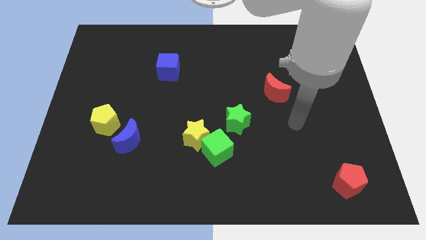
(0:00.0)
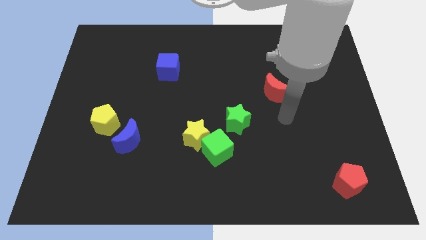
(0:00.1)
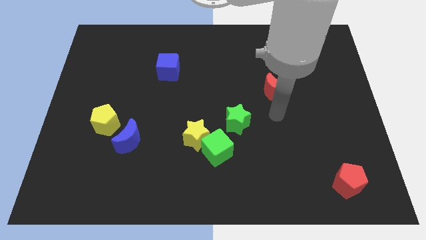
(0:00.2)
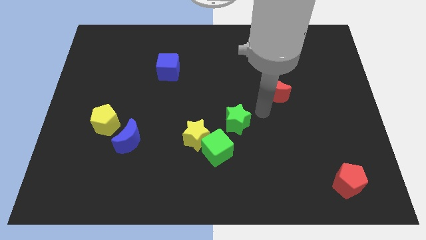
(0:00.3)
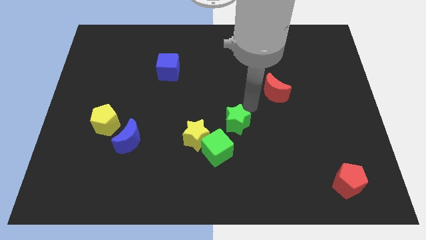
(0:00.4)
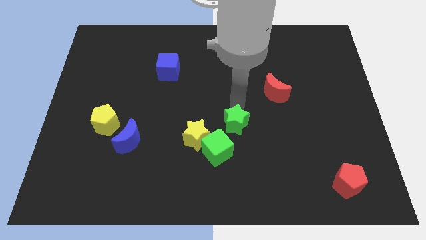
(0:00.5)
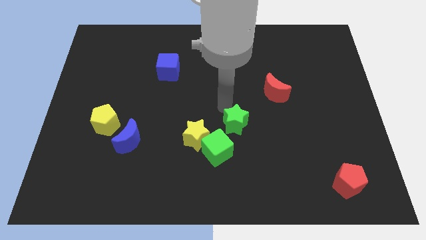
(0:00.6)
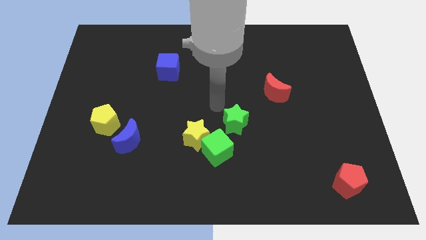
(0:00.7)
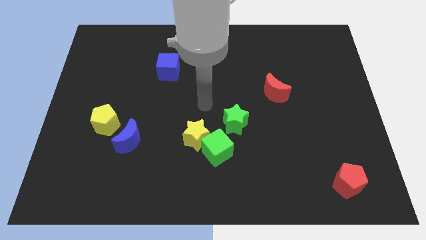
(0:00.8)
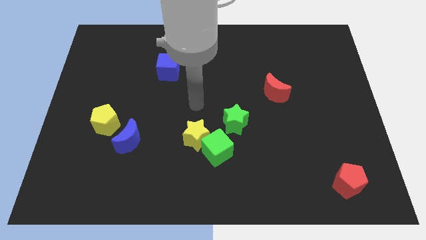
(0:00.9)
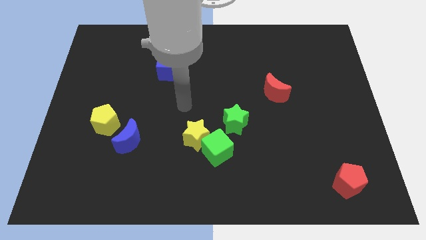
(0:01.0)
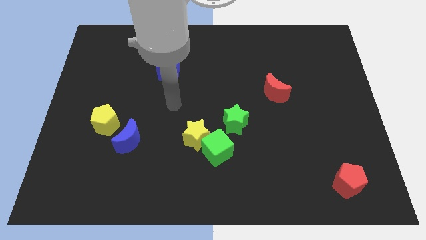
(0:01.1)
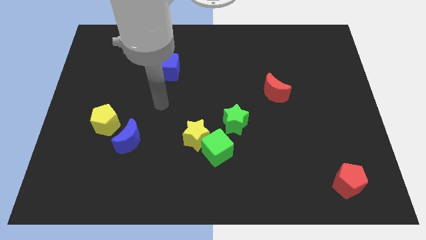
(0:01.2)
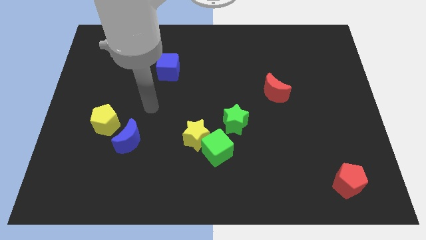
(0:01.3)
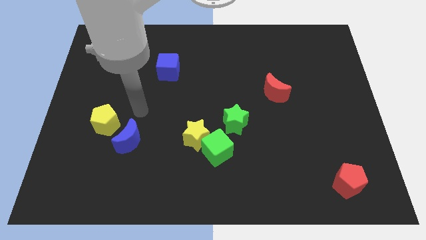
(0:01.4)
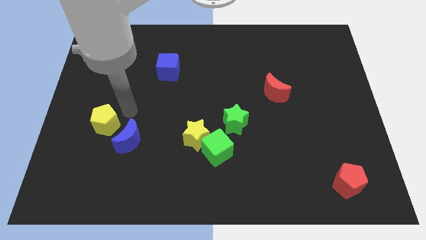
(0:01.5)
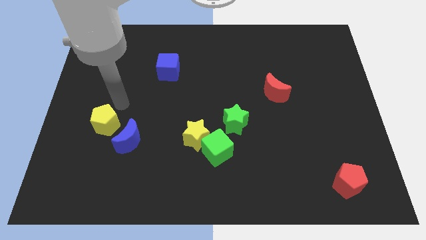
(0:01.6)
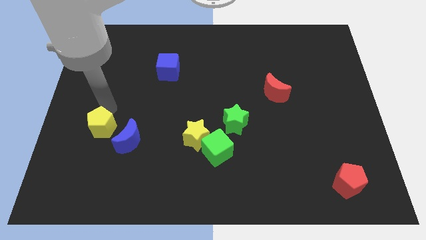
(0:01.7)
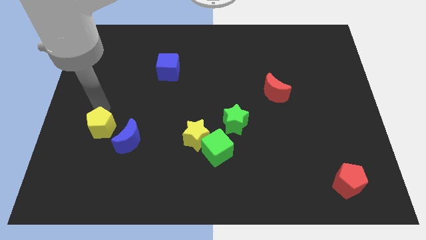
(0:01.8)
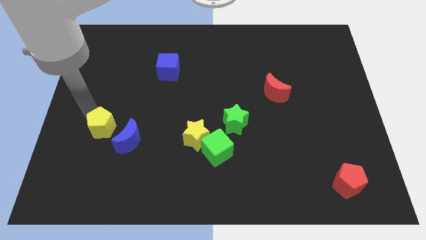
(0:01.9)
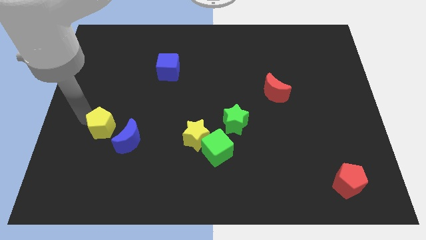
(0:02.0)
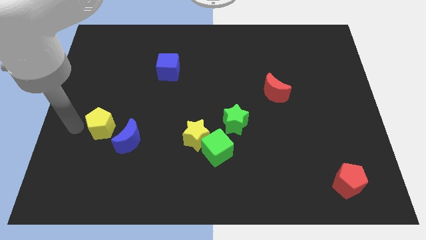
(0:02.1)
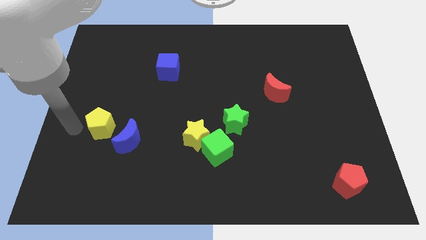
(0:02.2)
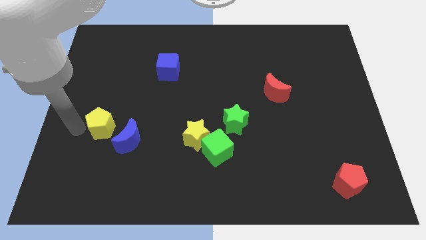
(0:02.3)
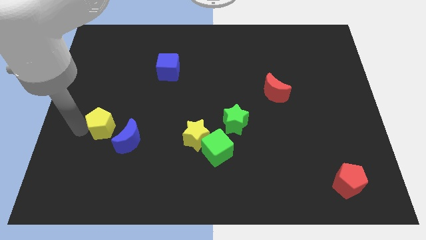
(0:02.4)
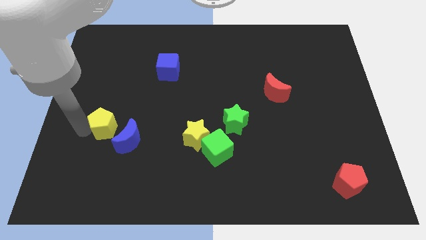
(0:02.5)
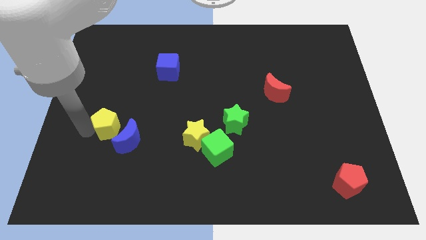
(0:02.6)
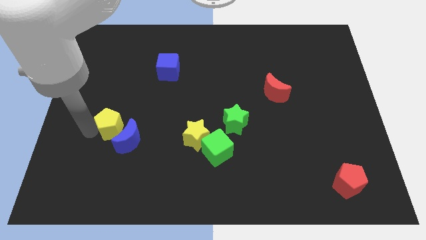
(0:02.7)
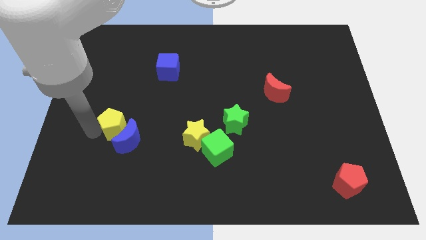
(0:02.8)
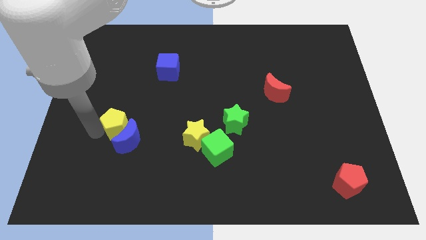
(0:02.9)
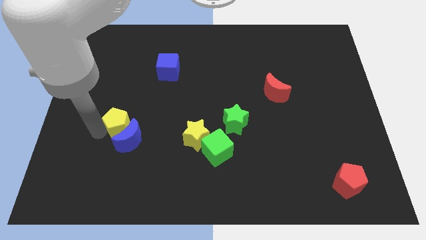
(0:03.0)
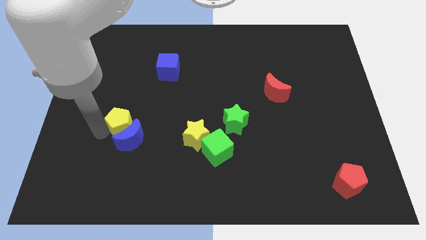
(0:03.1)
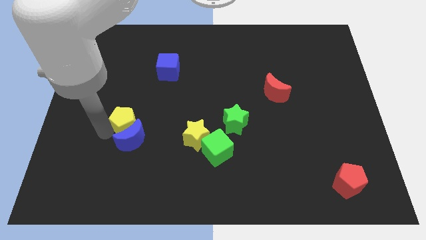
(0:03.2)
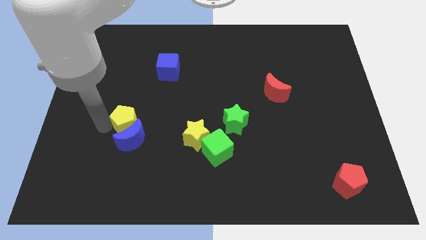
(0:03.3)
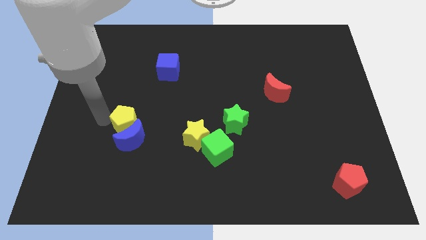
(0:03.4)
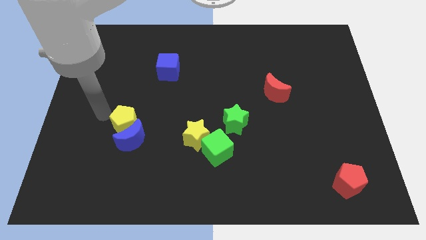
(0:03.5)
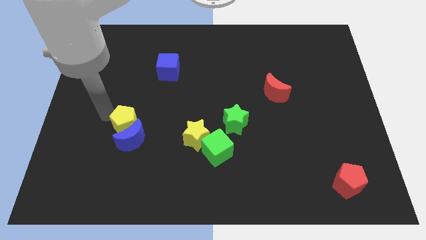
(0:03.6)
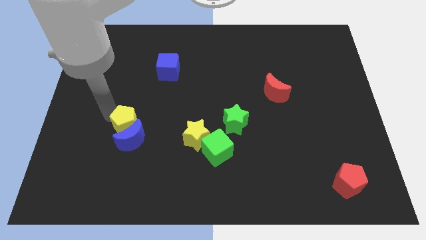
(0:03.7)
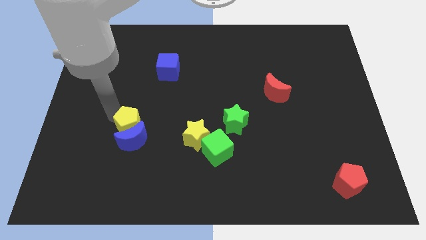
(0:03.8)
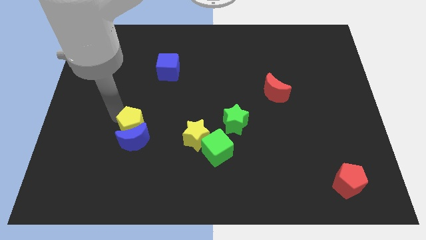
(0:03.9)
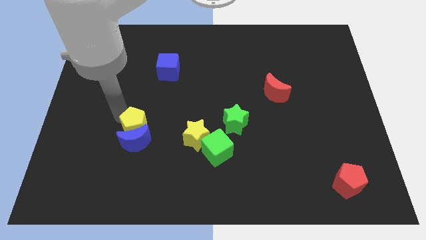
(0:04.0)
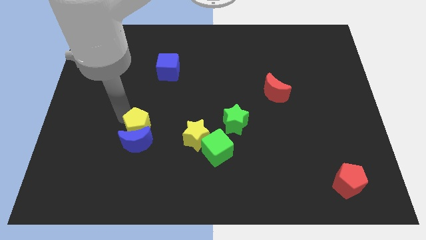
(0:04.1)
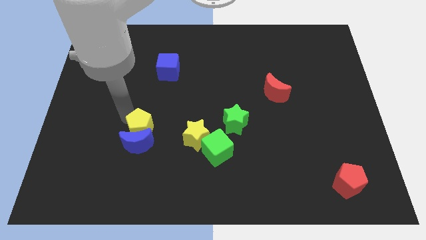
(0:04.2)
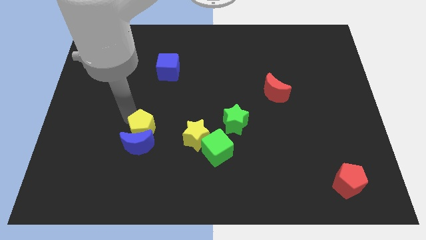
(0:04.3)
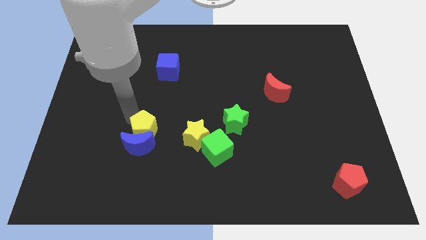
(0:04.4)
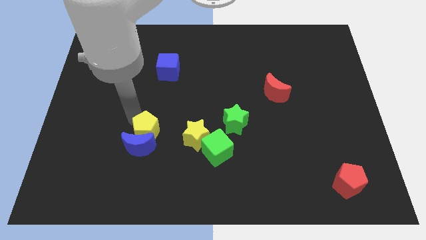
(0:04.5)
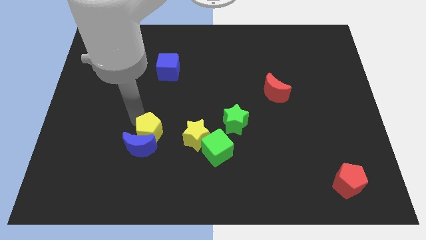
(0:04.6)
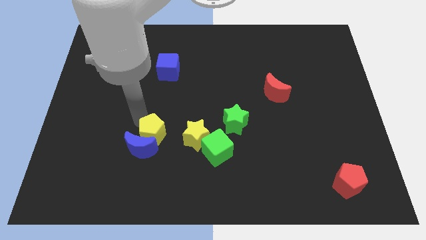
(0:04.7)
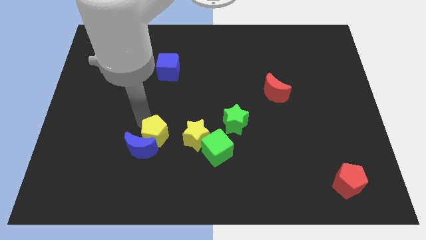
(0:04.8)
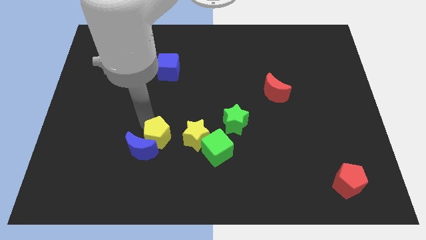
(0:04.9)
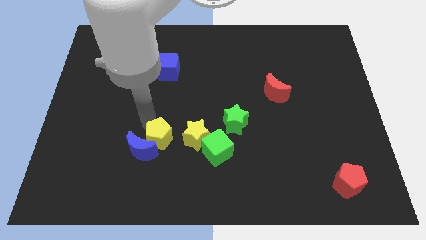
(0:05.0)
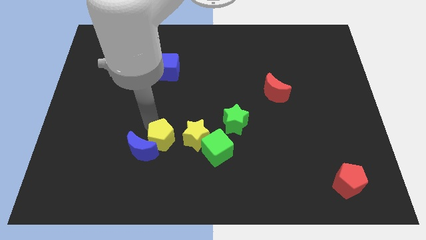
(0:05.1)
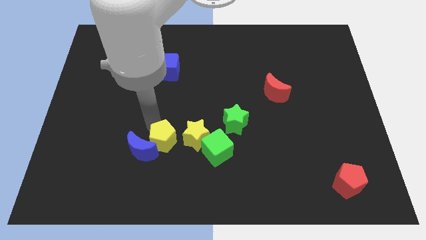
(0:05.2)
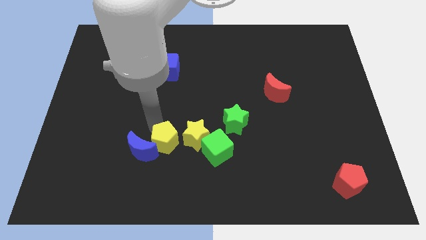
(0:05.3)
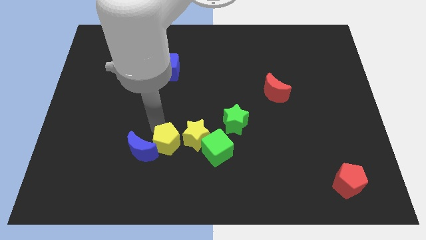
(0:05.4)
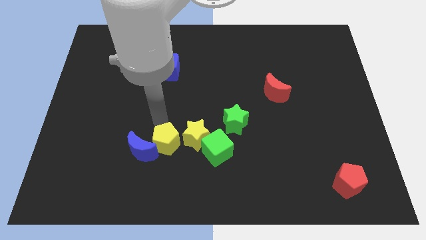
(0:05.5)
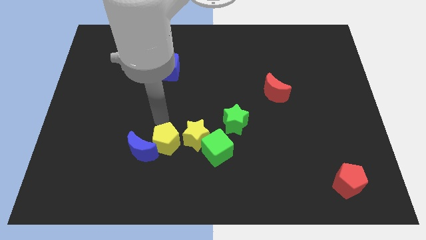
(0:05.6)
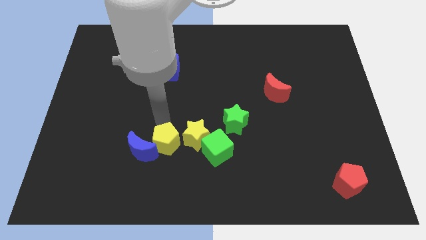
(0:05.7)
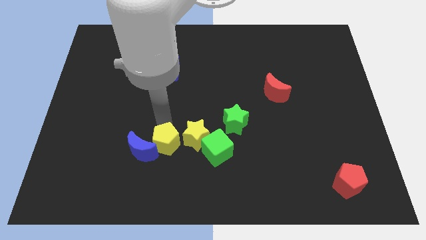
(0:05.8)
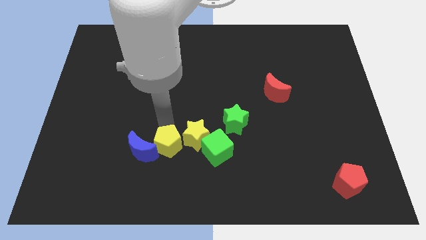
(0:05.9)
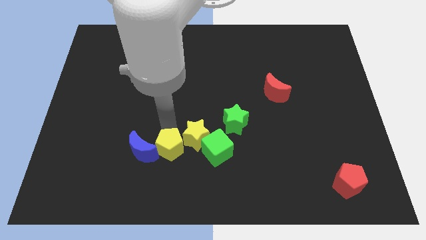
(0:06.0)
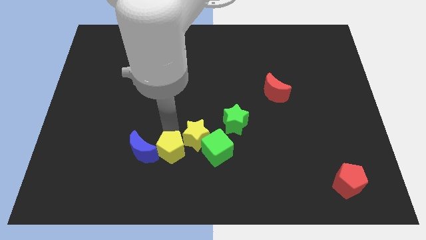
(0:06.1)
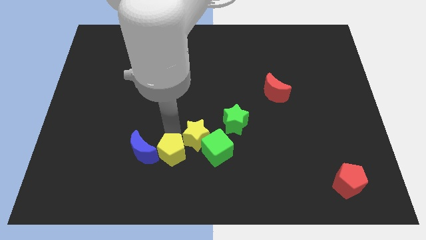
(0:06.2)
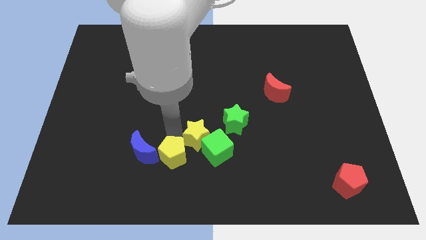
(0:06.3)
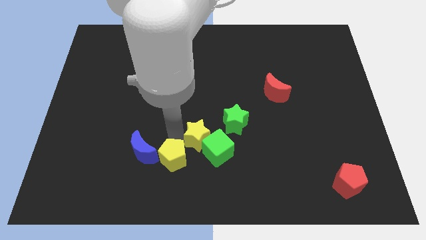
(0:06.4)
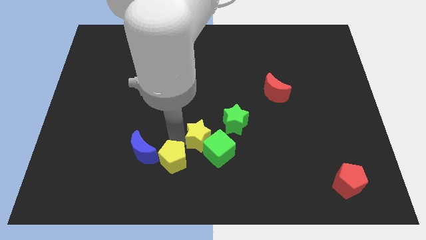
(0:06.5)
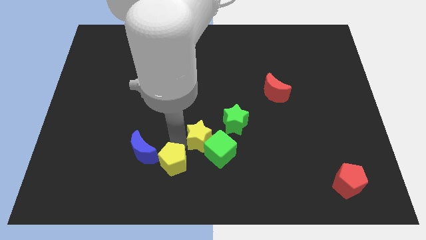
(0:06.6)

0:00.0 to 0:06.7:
move the yellow pentagon to the bottom

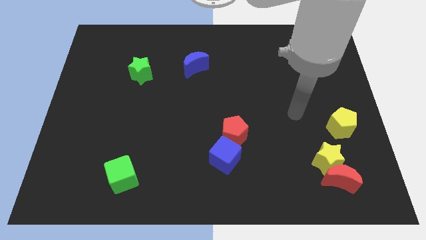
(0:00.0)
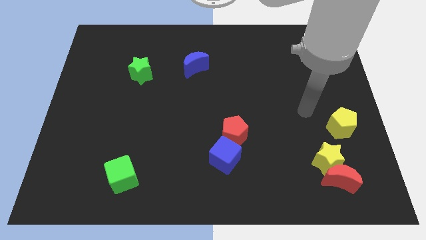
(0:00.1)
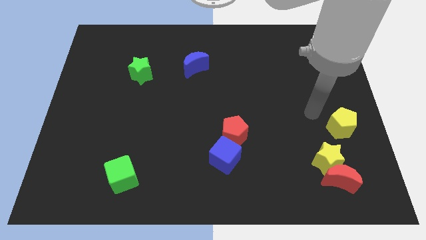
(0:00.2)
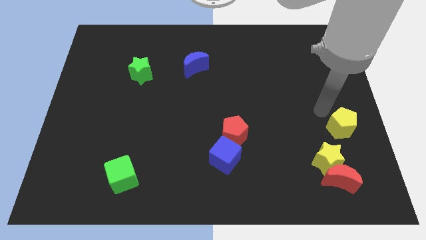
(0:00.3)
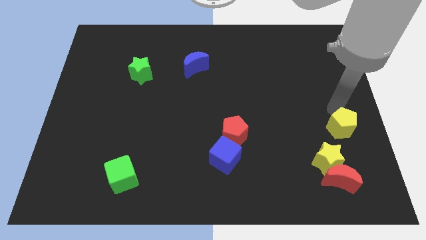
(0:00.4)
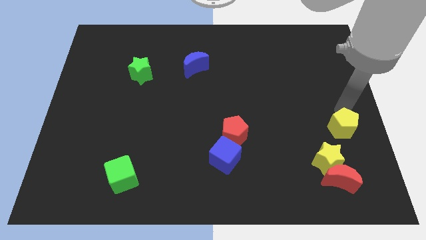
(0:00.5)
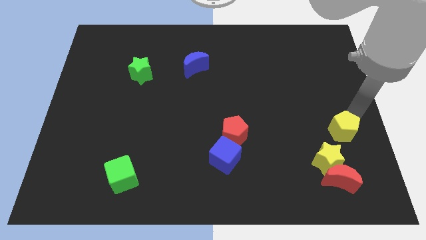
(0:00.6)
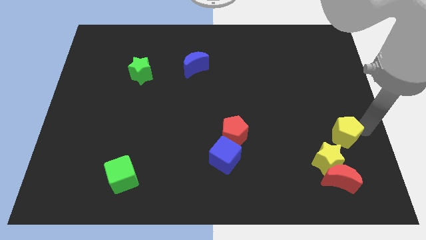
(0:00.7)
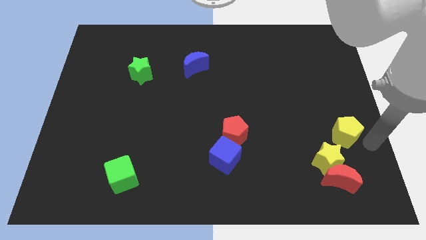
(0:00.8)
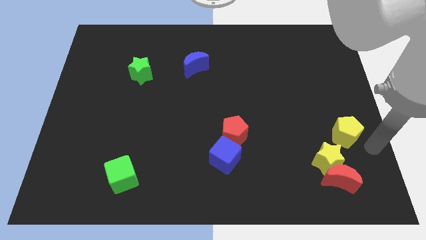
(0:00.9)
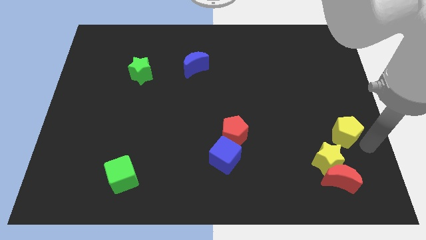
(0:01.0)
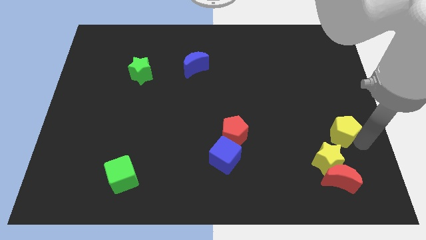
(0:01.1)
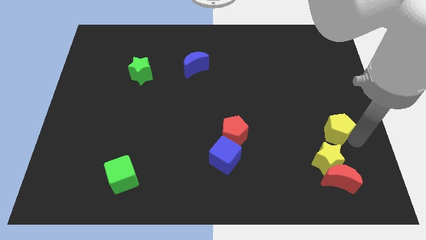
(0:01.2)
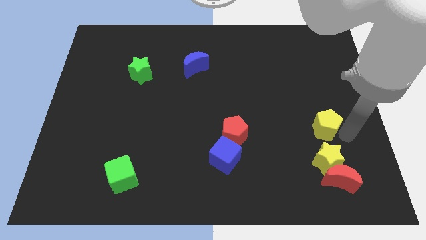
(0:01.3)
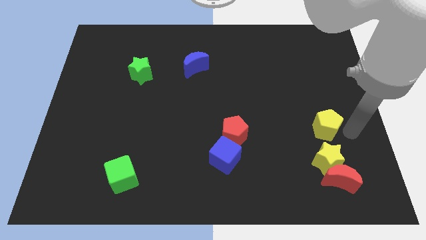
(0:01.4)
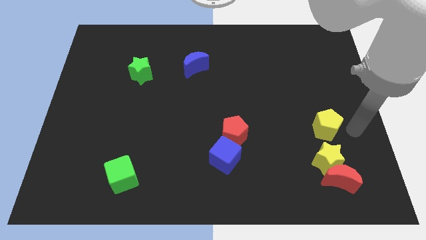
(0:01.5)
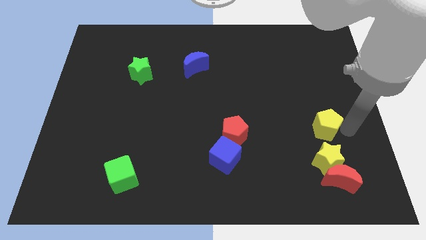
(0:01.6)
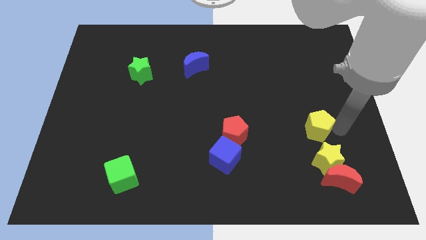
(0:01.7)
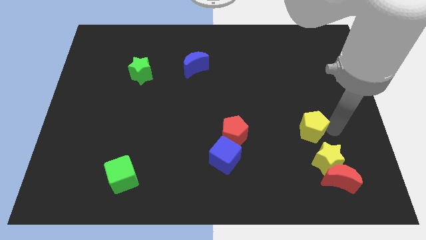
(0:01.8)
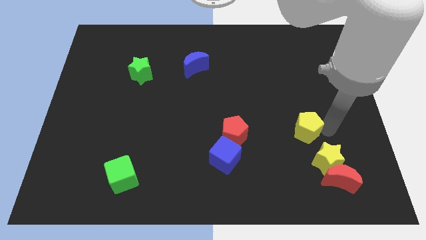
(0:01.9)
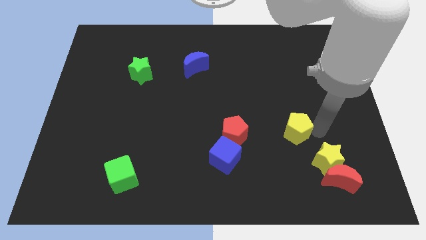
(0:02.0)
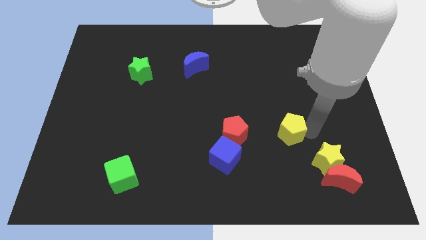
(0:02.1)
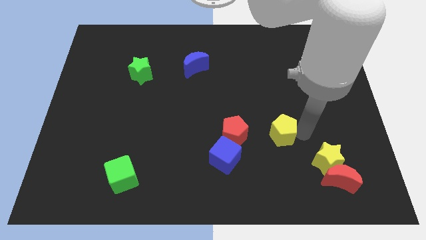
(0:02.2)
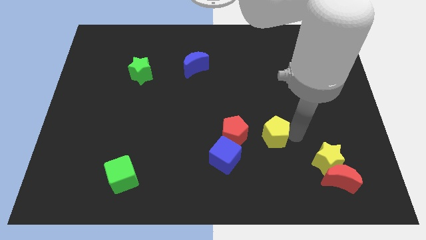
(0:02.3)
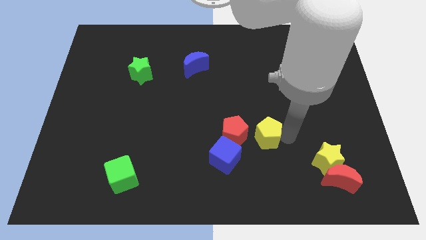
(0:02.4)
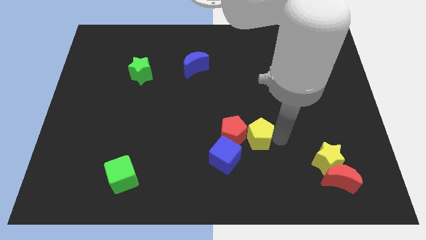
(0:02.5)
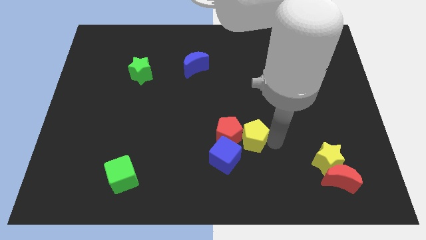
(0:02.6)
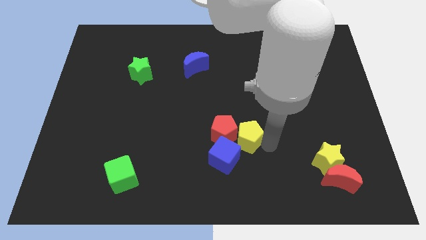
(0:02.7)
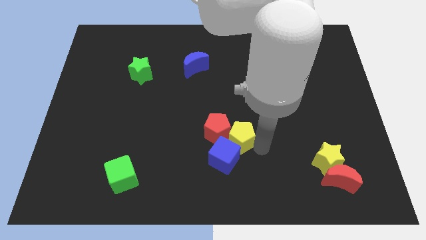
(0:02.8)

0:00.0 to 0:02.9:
slide the yellow pentagon to the center
